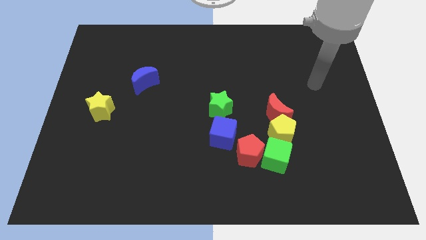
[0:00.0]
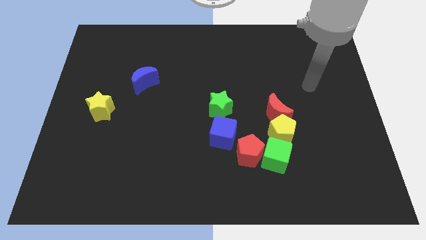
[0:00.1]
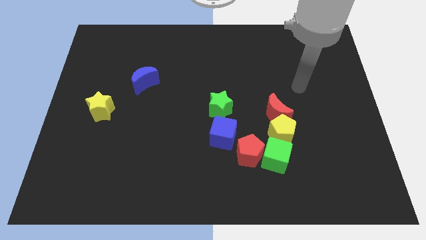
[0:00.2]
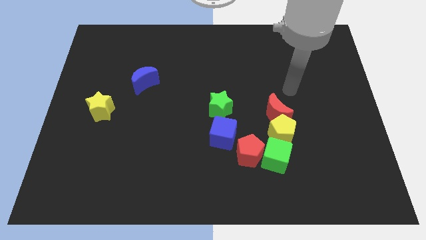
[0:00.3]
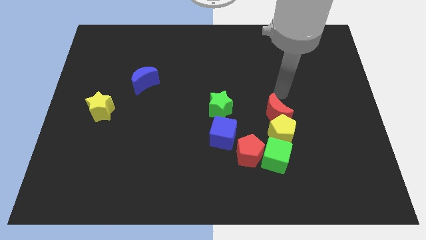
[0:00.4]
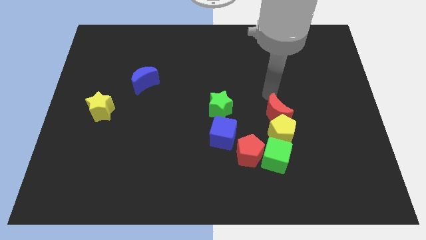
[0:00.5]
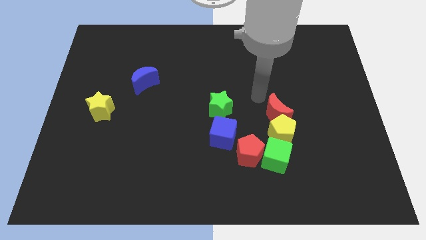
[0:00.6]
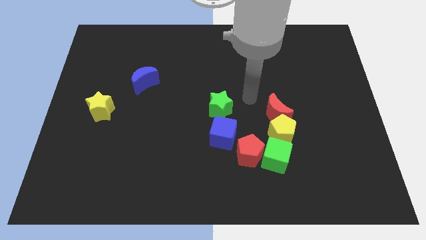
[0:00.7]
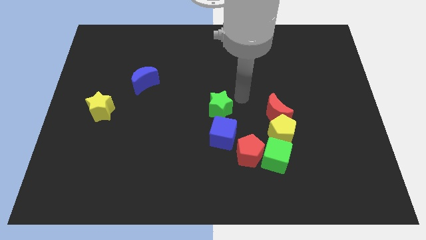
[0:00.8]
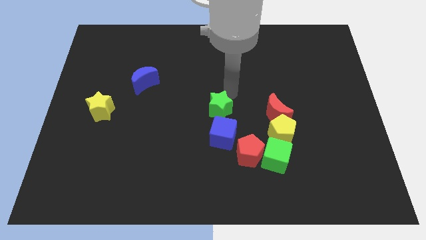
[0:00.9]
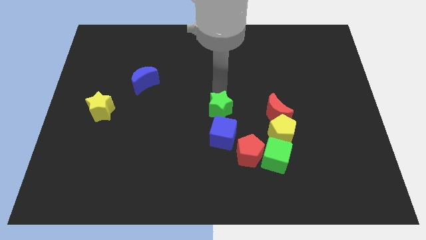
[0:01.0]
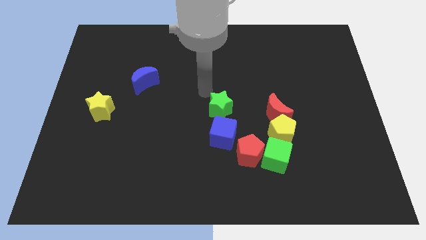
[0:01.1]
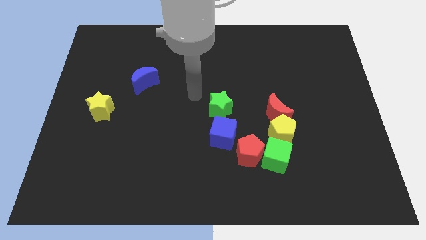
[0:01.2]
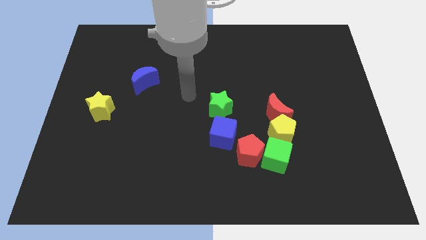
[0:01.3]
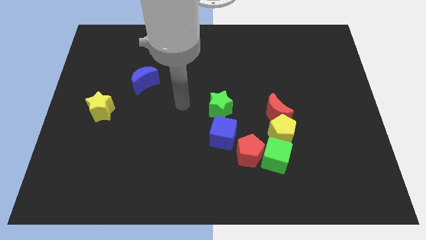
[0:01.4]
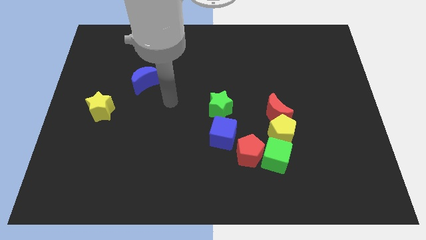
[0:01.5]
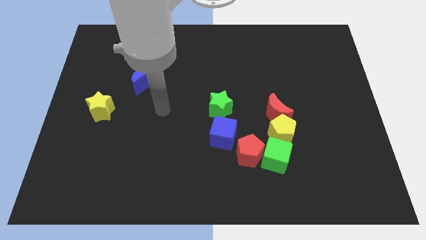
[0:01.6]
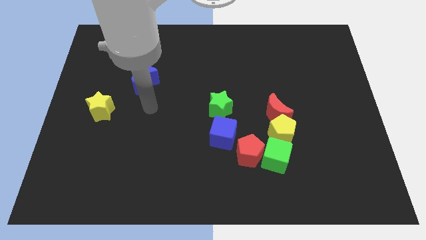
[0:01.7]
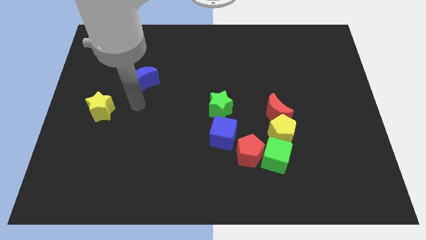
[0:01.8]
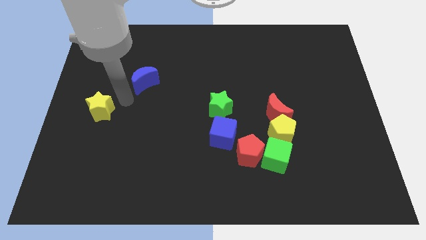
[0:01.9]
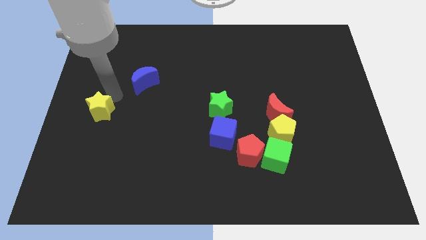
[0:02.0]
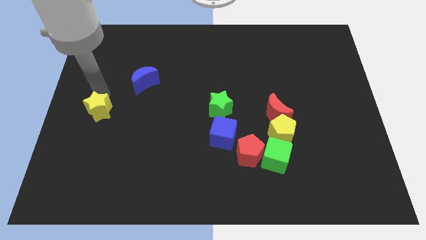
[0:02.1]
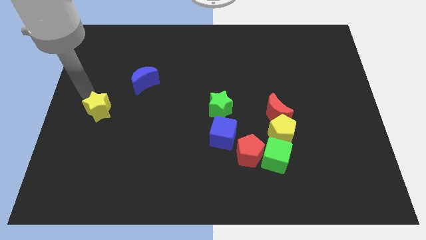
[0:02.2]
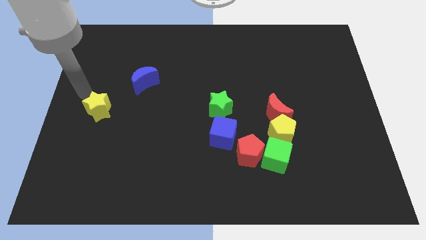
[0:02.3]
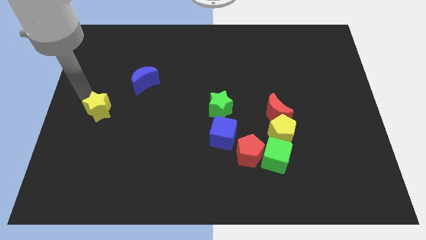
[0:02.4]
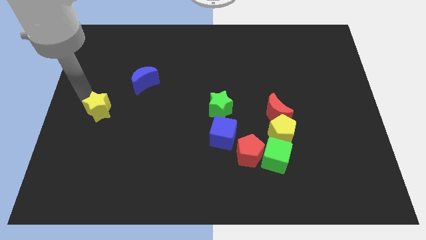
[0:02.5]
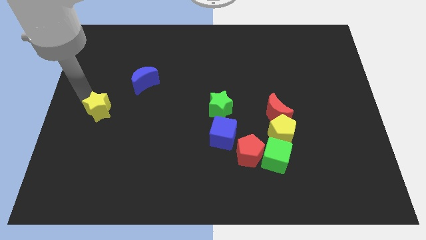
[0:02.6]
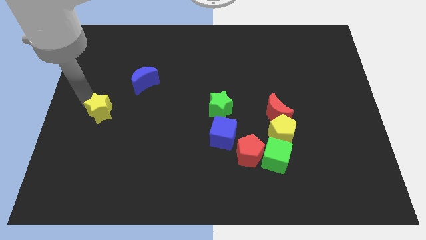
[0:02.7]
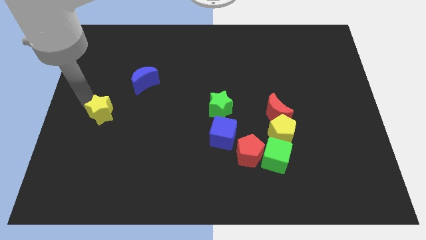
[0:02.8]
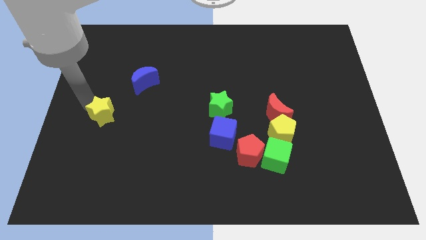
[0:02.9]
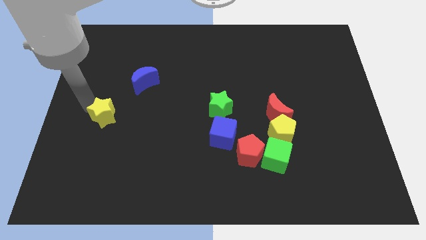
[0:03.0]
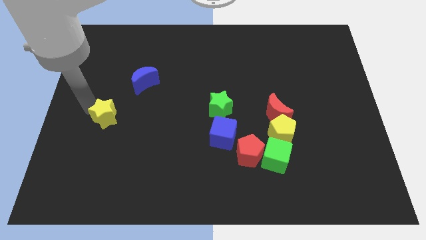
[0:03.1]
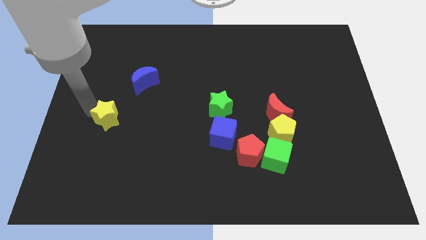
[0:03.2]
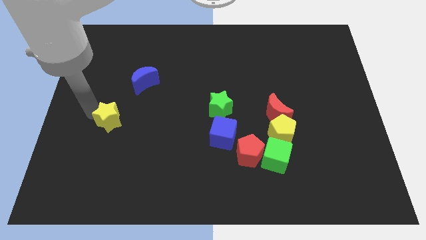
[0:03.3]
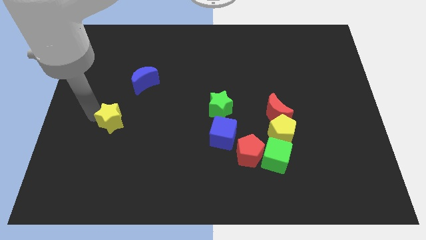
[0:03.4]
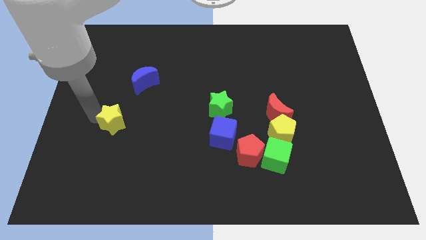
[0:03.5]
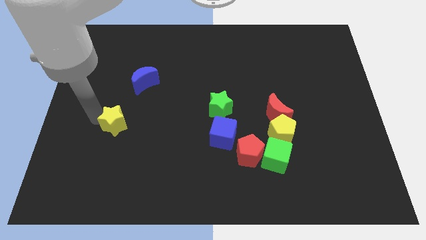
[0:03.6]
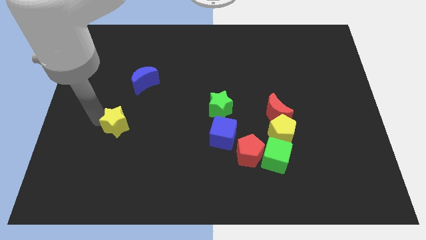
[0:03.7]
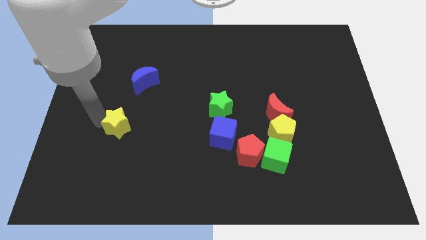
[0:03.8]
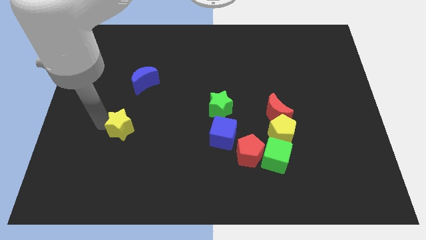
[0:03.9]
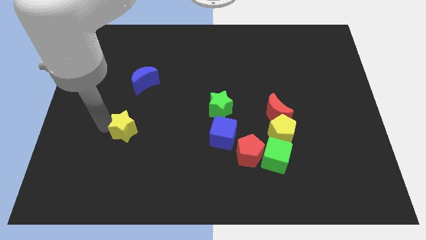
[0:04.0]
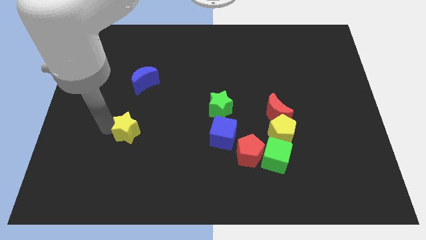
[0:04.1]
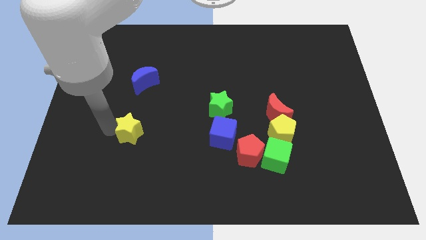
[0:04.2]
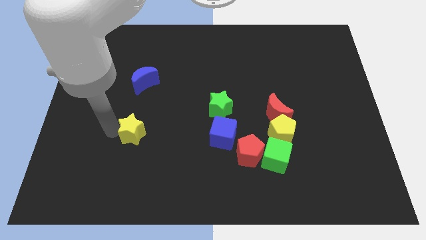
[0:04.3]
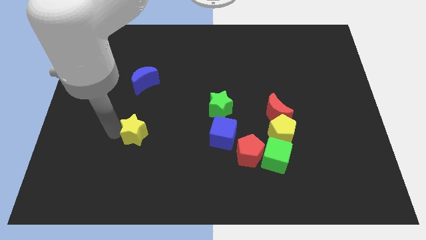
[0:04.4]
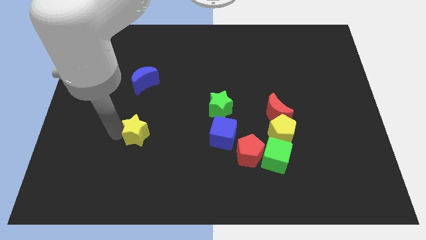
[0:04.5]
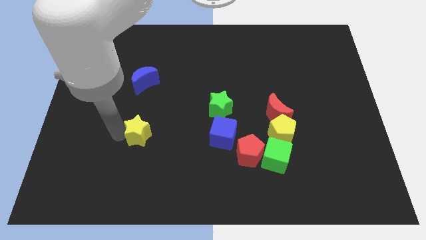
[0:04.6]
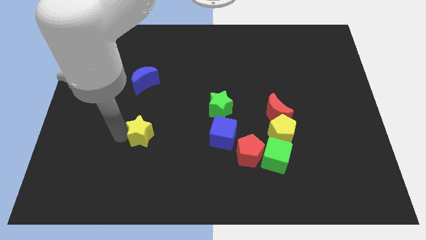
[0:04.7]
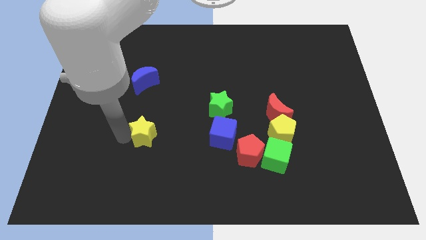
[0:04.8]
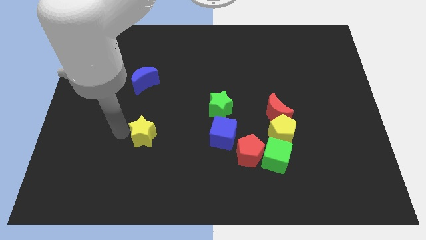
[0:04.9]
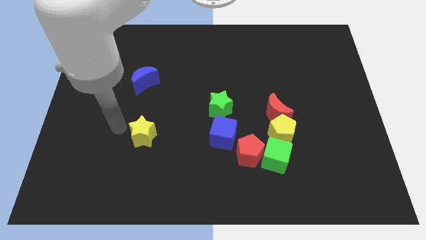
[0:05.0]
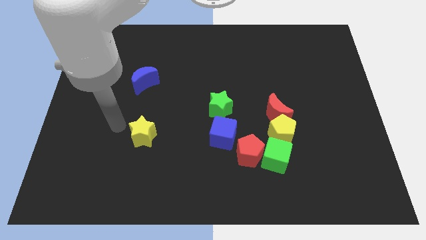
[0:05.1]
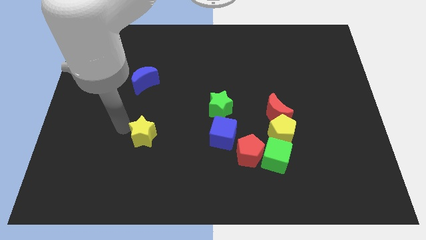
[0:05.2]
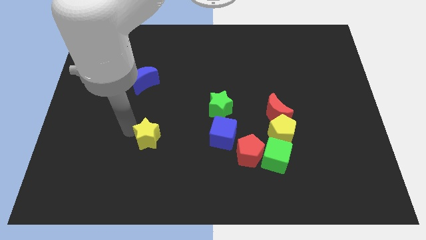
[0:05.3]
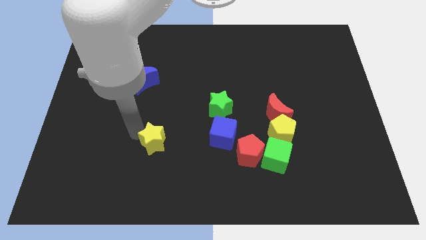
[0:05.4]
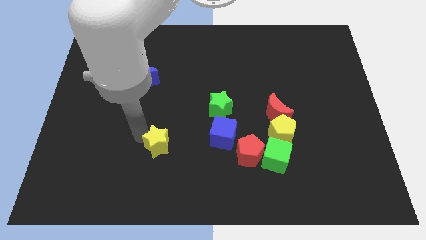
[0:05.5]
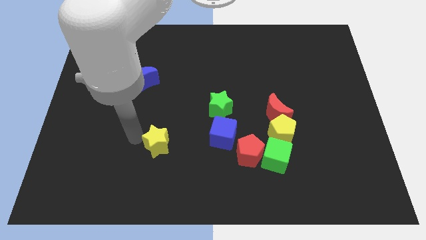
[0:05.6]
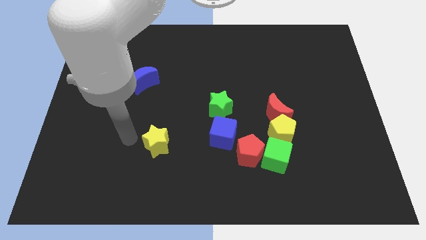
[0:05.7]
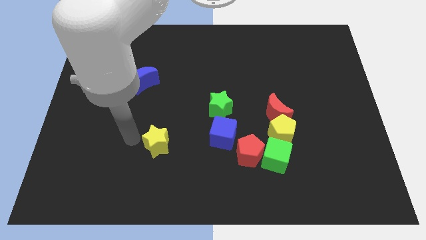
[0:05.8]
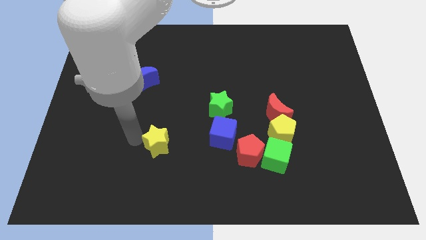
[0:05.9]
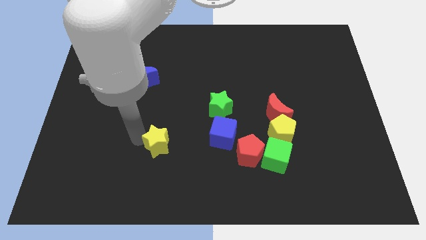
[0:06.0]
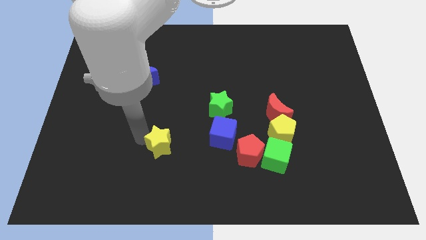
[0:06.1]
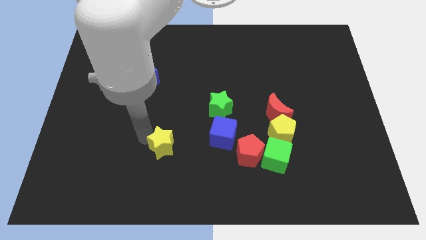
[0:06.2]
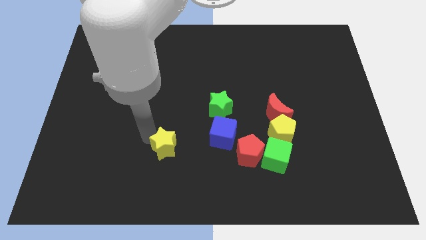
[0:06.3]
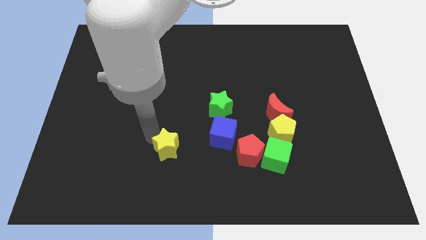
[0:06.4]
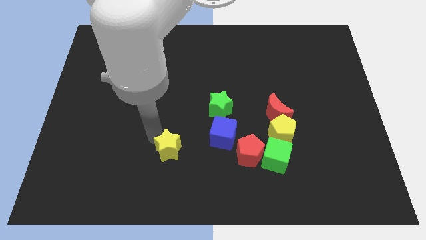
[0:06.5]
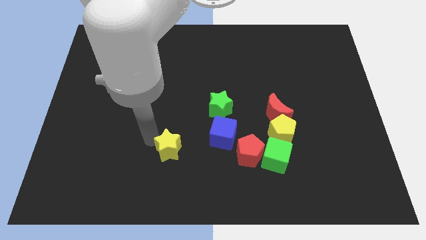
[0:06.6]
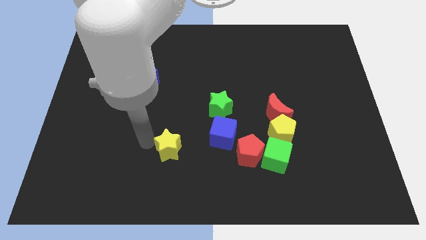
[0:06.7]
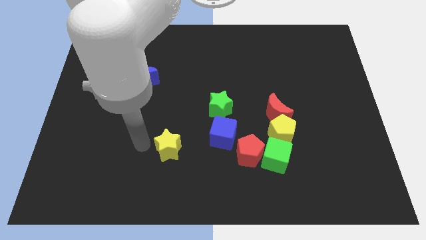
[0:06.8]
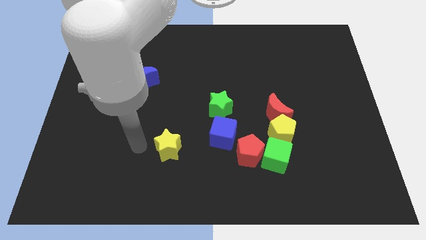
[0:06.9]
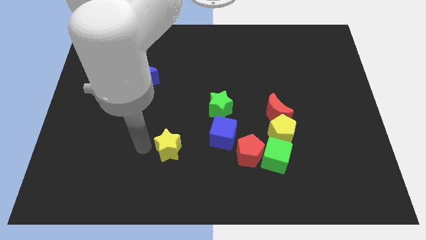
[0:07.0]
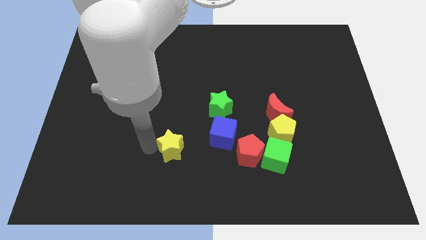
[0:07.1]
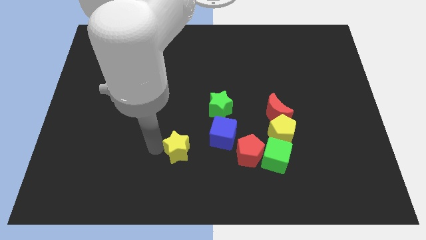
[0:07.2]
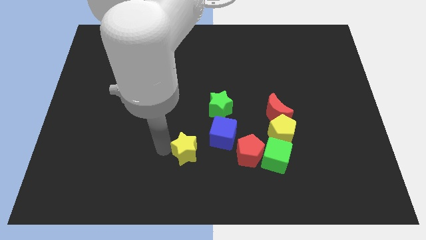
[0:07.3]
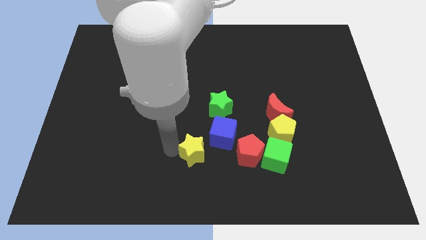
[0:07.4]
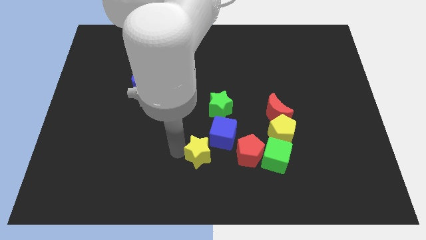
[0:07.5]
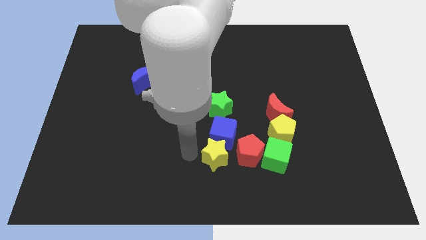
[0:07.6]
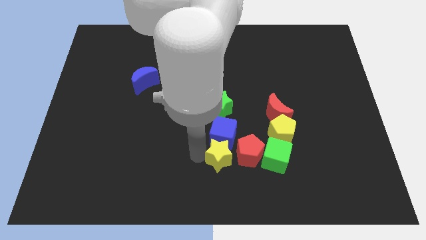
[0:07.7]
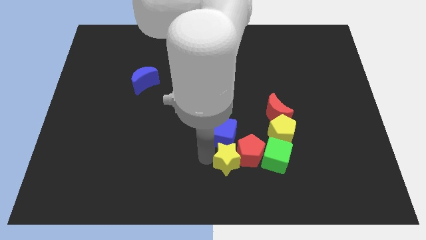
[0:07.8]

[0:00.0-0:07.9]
slide the yellow star to the red pentagon
